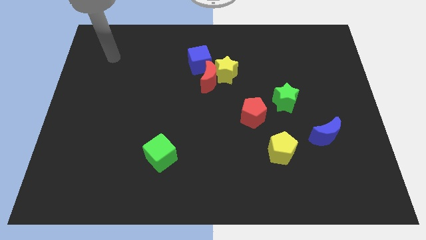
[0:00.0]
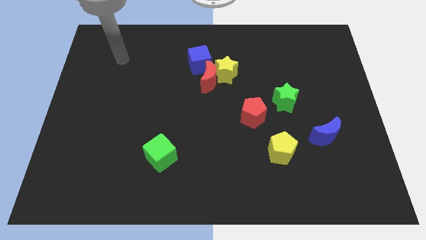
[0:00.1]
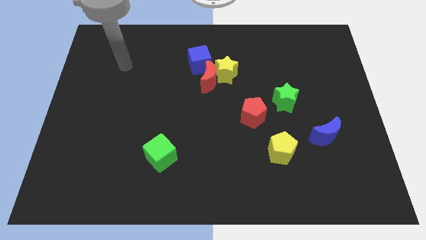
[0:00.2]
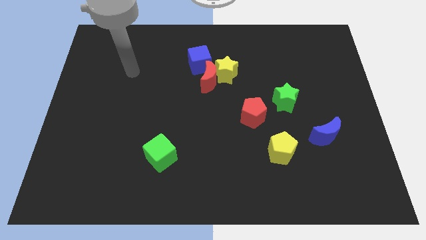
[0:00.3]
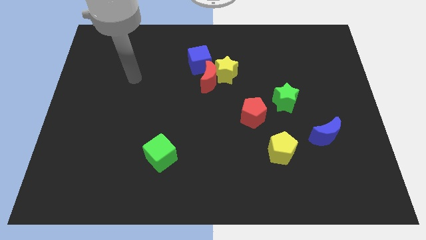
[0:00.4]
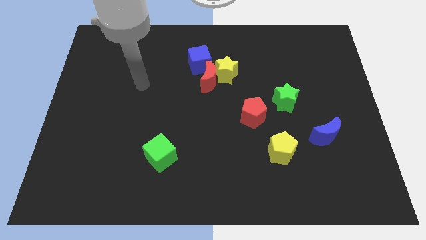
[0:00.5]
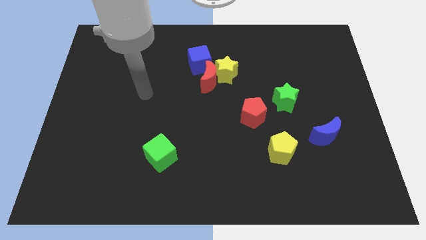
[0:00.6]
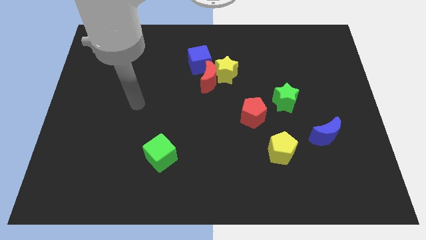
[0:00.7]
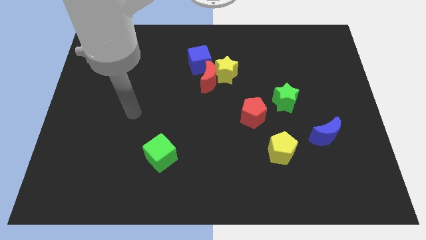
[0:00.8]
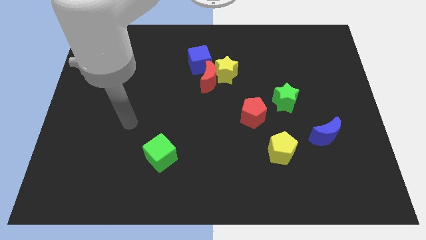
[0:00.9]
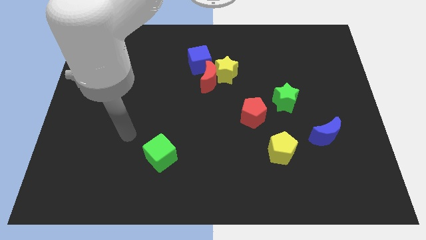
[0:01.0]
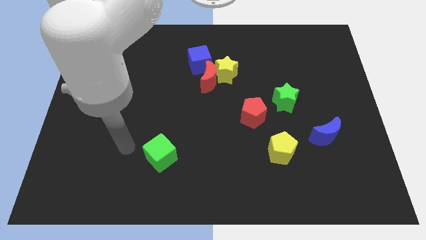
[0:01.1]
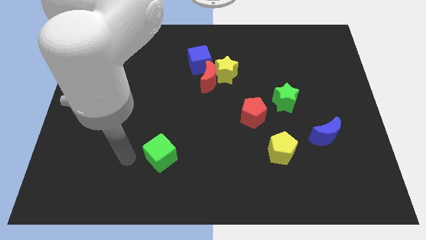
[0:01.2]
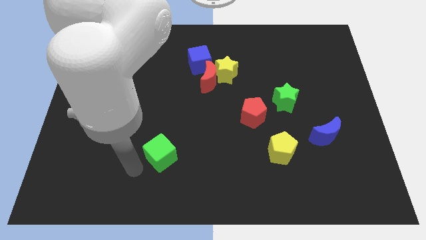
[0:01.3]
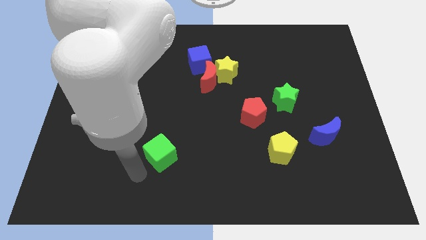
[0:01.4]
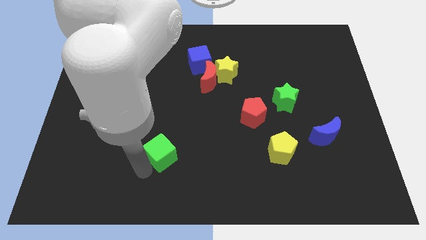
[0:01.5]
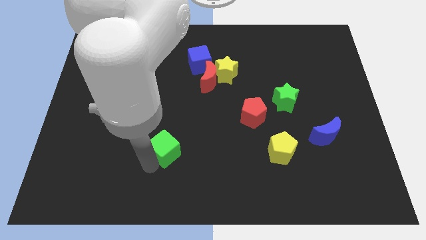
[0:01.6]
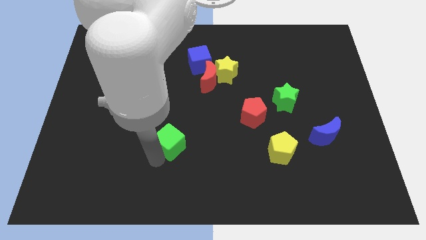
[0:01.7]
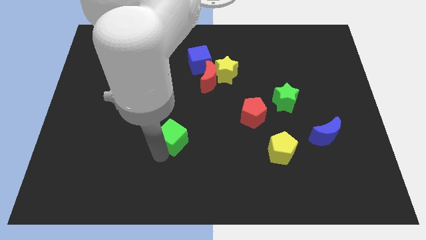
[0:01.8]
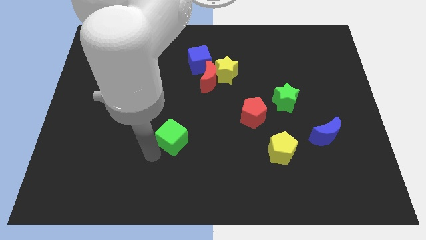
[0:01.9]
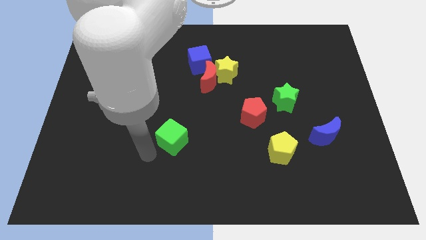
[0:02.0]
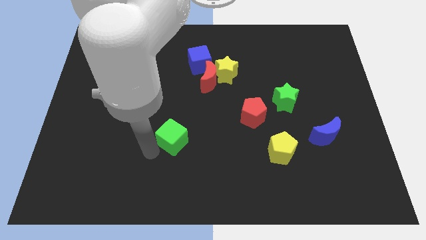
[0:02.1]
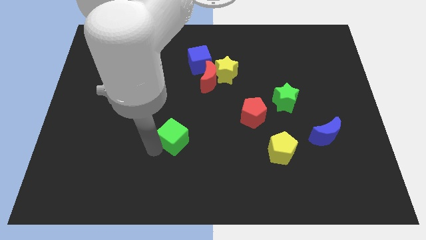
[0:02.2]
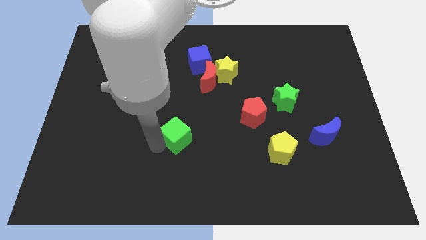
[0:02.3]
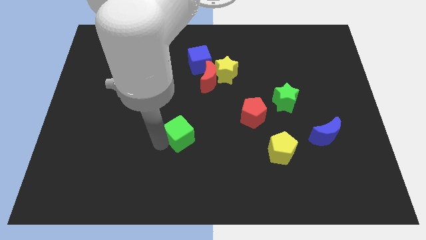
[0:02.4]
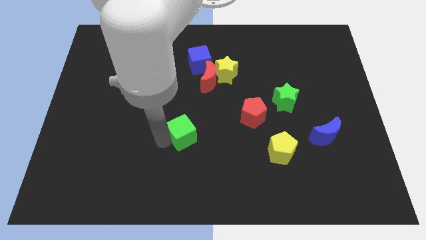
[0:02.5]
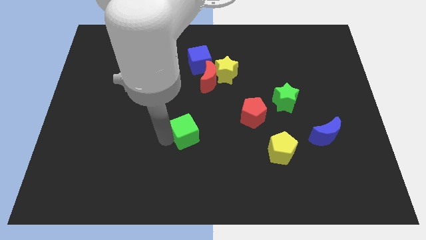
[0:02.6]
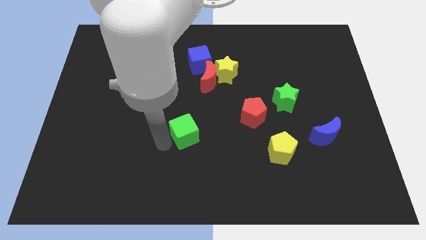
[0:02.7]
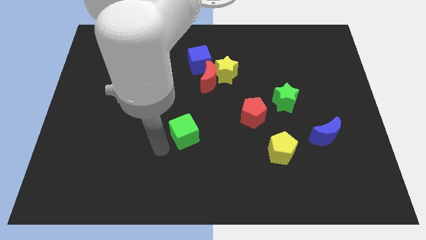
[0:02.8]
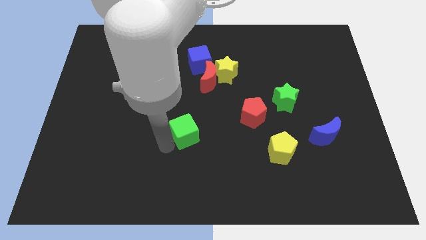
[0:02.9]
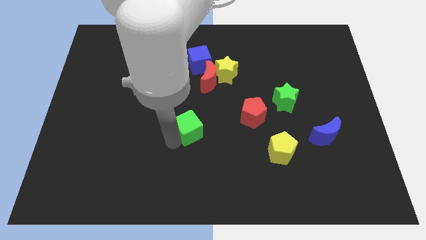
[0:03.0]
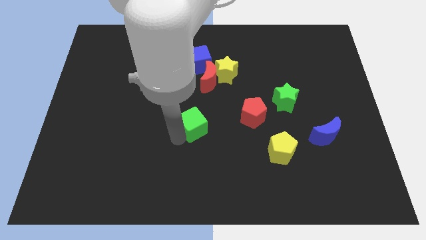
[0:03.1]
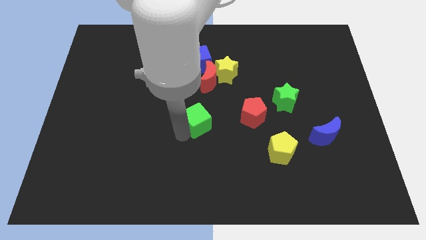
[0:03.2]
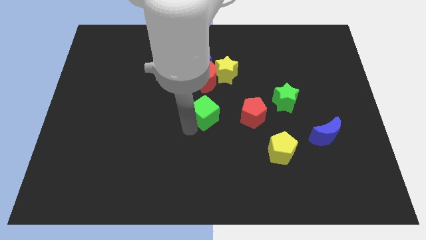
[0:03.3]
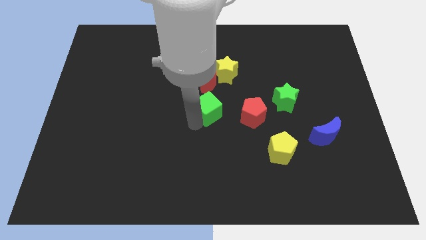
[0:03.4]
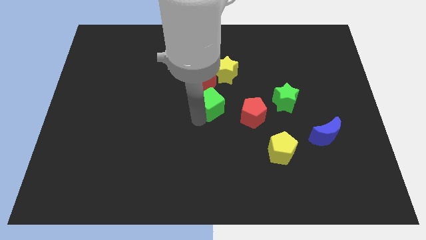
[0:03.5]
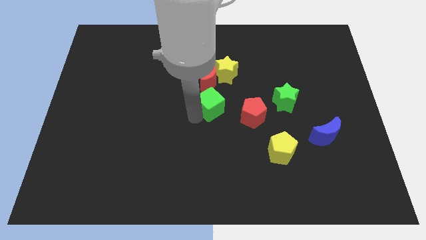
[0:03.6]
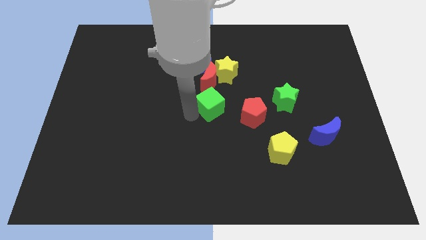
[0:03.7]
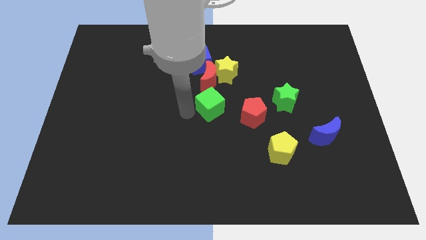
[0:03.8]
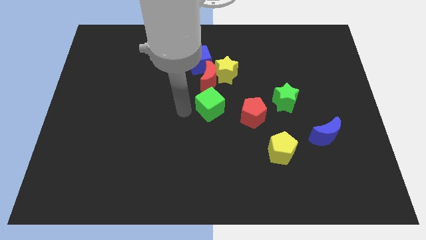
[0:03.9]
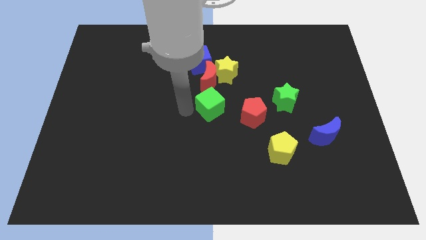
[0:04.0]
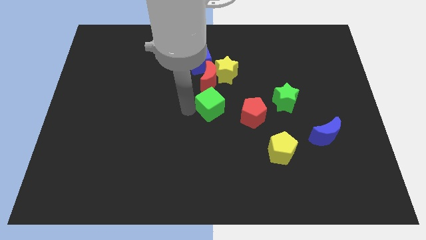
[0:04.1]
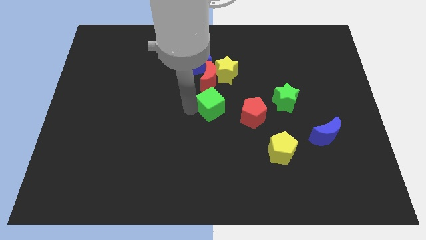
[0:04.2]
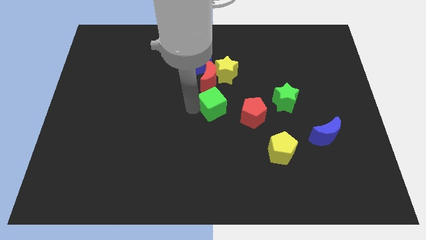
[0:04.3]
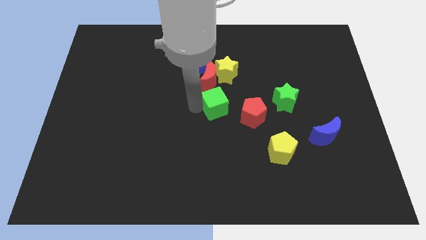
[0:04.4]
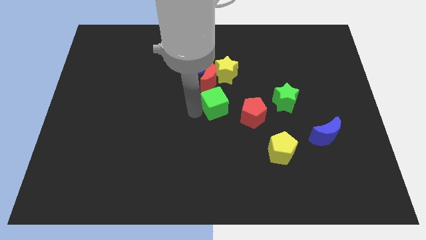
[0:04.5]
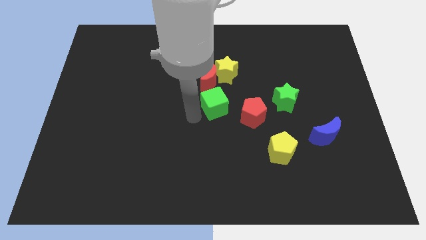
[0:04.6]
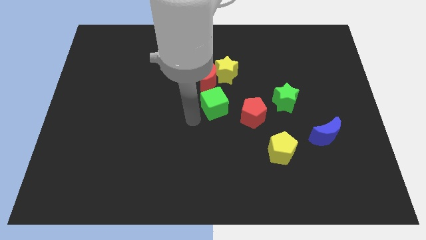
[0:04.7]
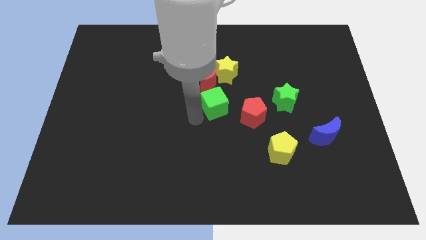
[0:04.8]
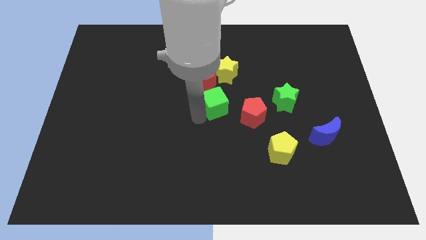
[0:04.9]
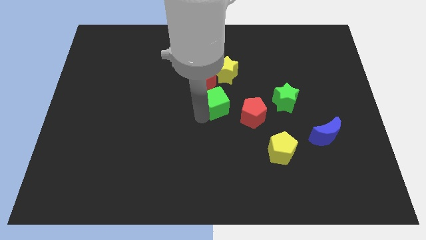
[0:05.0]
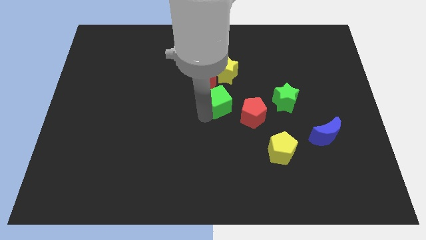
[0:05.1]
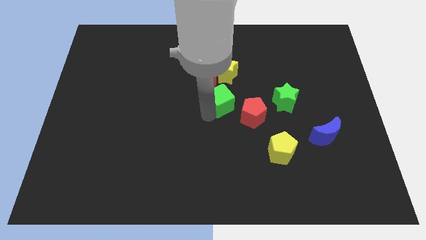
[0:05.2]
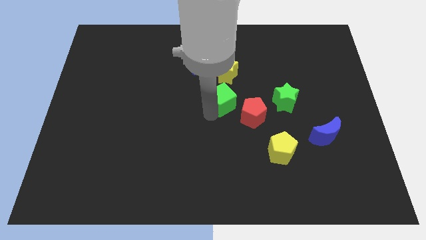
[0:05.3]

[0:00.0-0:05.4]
push the green cube up and then right

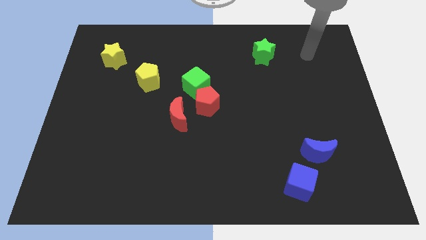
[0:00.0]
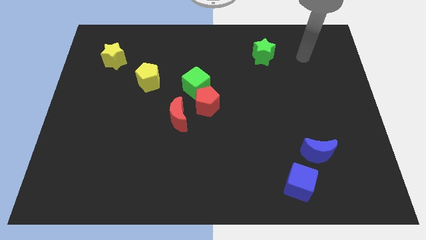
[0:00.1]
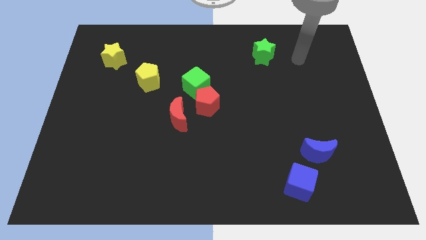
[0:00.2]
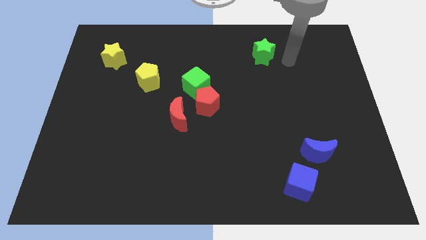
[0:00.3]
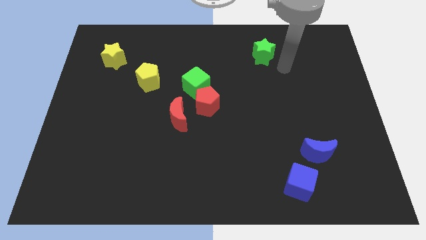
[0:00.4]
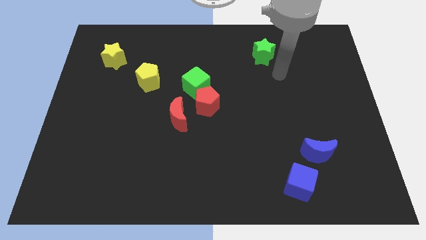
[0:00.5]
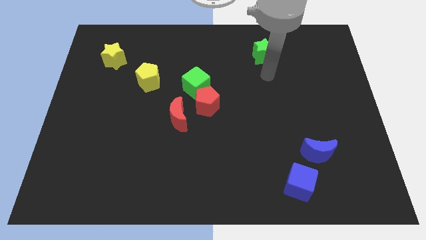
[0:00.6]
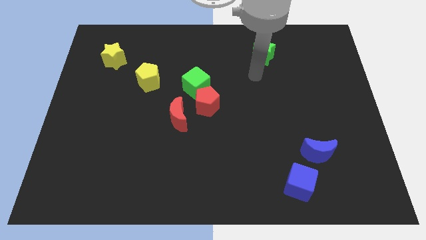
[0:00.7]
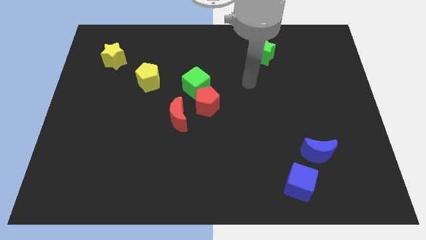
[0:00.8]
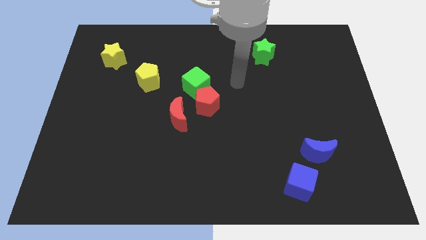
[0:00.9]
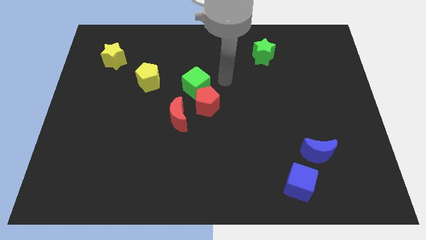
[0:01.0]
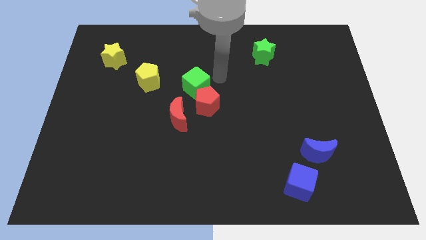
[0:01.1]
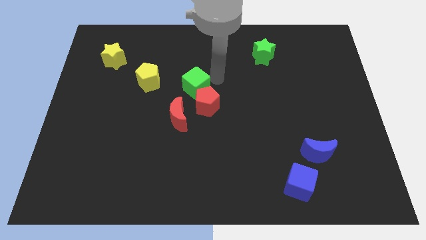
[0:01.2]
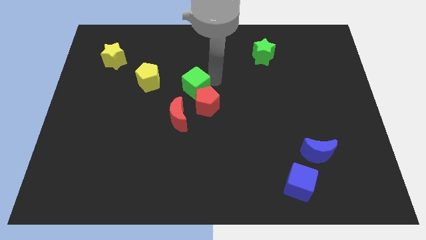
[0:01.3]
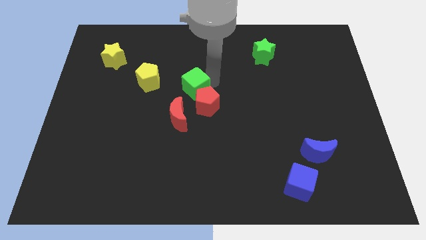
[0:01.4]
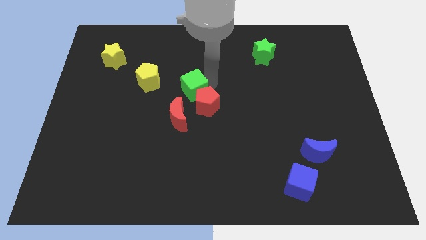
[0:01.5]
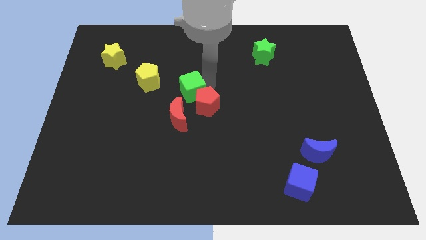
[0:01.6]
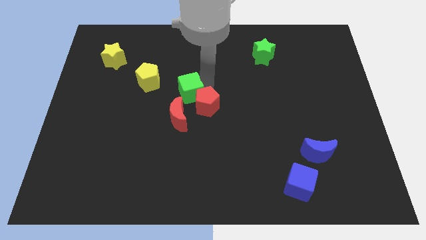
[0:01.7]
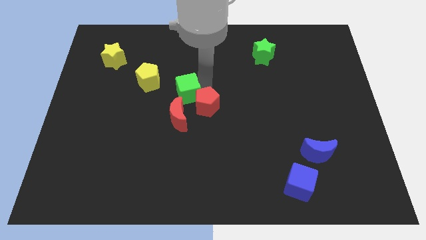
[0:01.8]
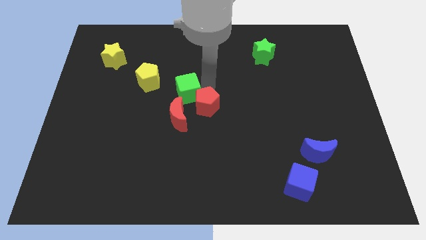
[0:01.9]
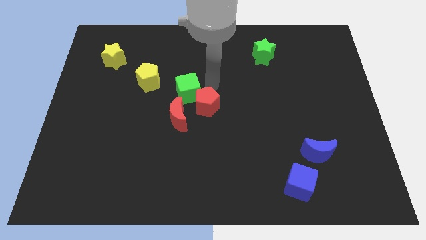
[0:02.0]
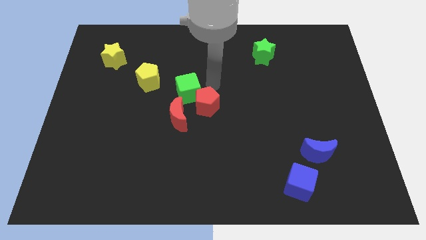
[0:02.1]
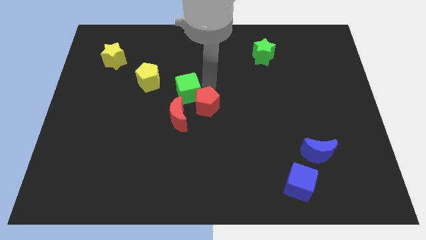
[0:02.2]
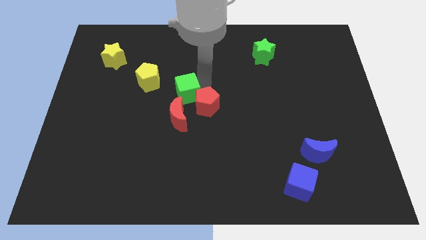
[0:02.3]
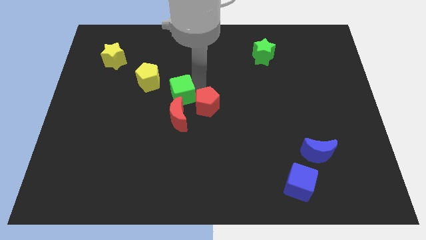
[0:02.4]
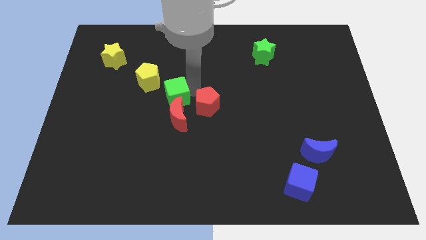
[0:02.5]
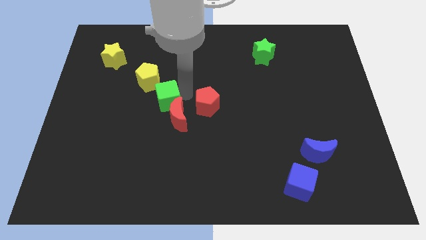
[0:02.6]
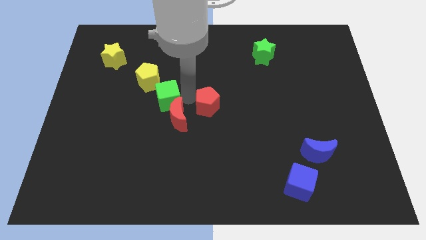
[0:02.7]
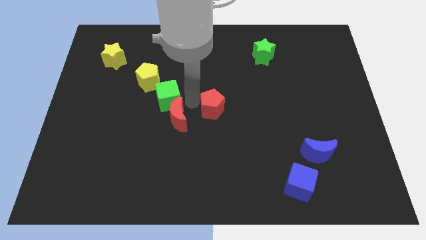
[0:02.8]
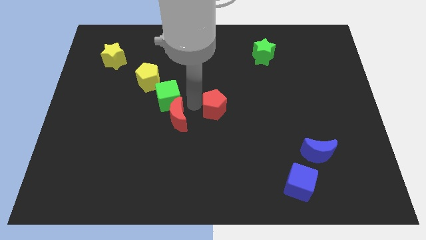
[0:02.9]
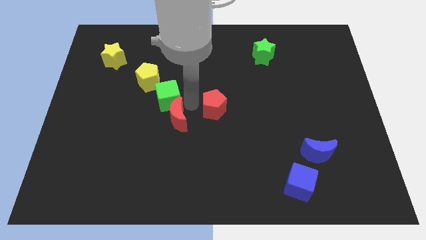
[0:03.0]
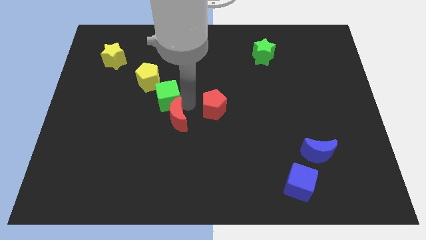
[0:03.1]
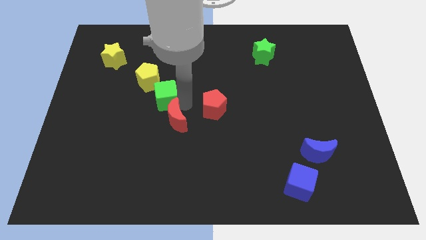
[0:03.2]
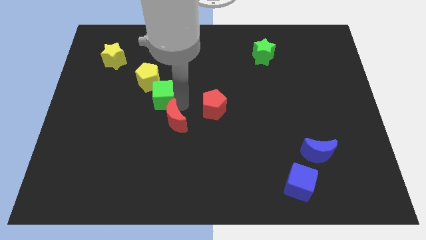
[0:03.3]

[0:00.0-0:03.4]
push the green cube a bit to the left

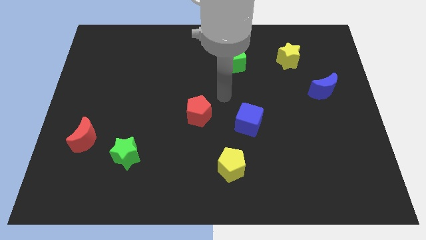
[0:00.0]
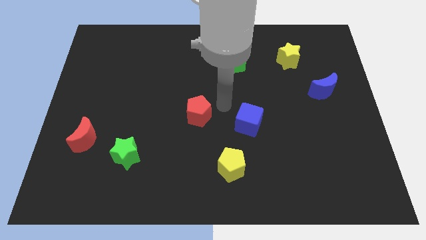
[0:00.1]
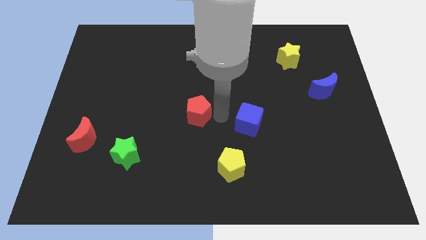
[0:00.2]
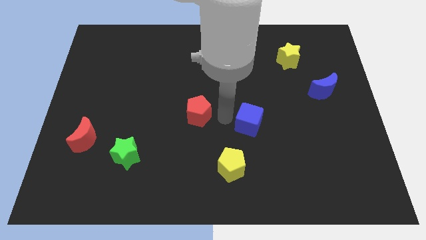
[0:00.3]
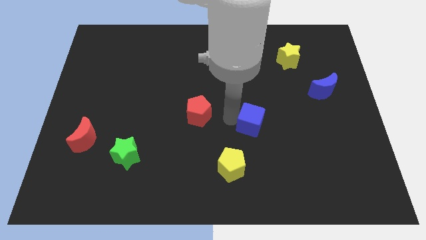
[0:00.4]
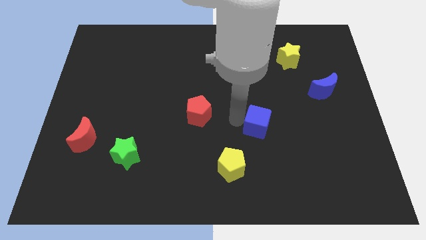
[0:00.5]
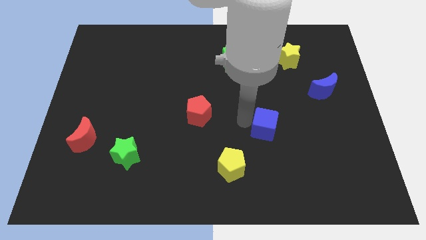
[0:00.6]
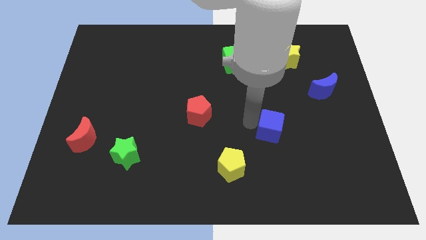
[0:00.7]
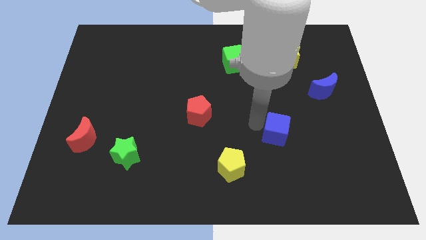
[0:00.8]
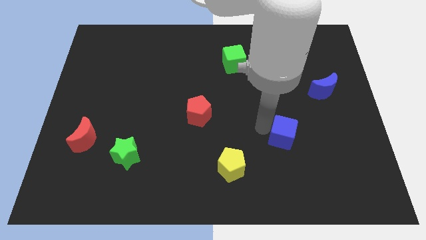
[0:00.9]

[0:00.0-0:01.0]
slightly move the blue cube right
